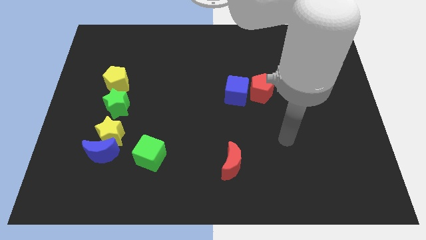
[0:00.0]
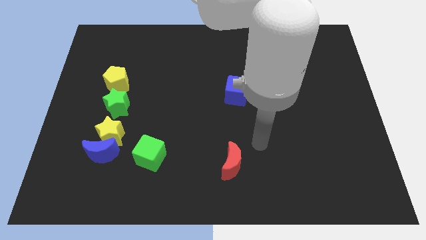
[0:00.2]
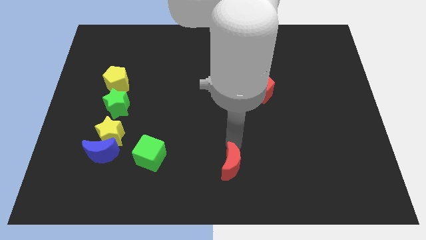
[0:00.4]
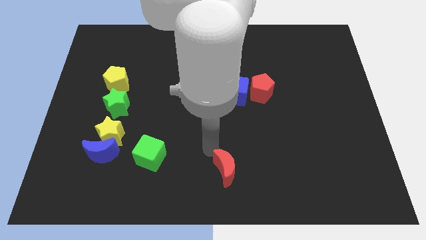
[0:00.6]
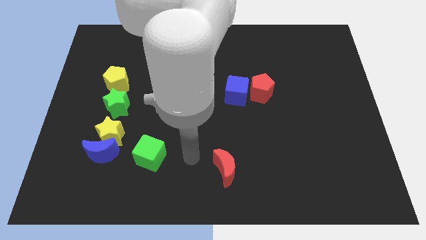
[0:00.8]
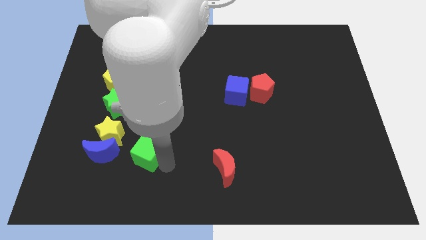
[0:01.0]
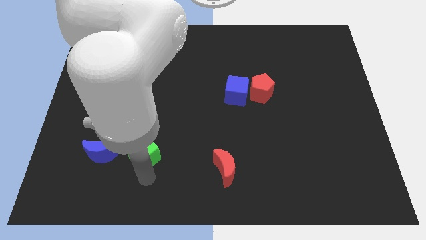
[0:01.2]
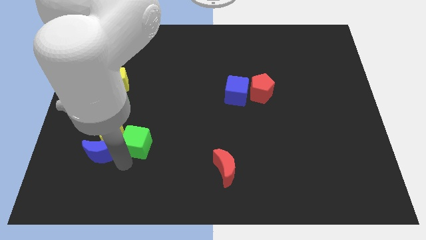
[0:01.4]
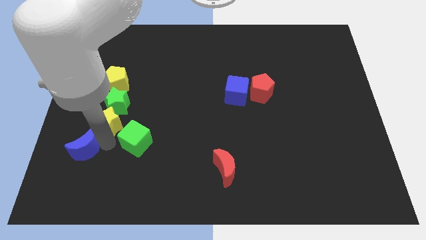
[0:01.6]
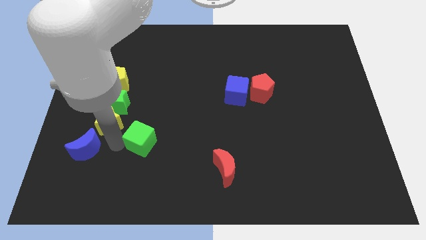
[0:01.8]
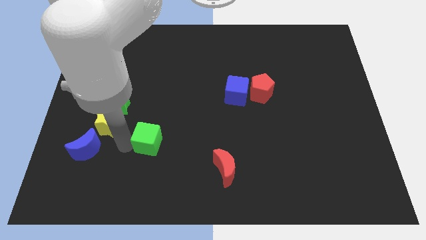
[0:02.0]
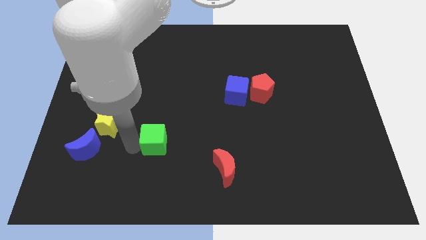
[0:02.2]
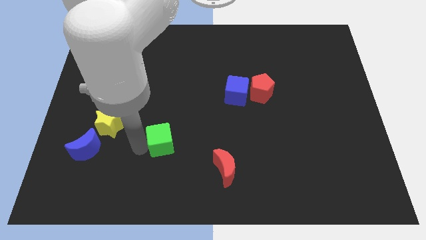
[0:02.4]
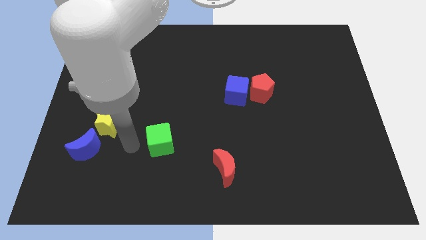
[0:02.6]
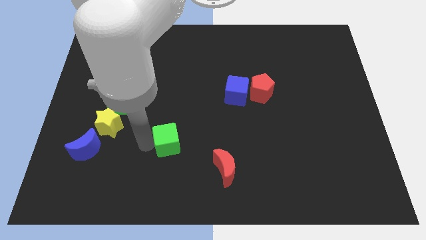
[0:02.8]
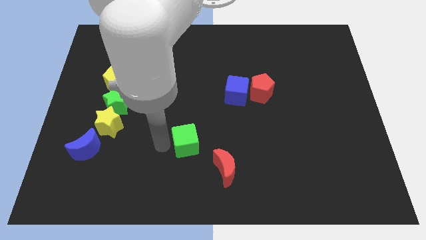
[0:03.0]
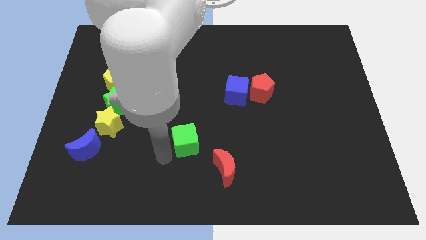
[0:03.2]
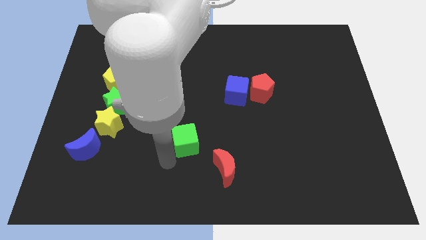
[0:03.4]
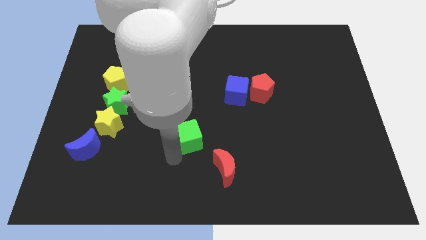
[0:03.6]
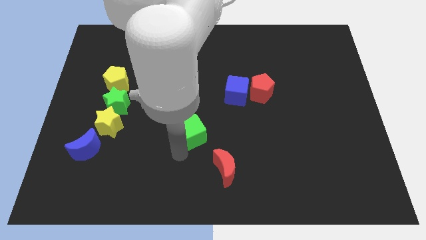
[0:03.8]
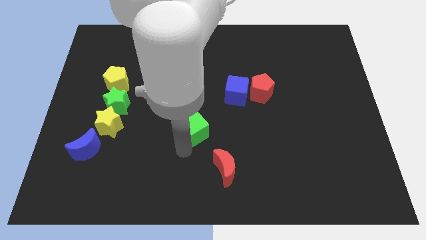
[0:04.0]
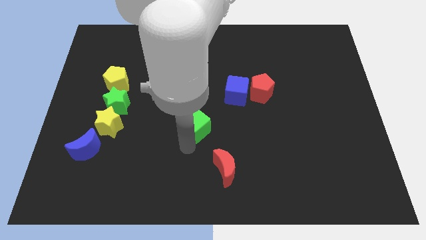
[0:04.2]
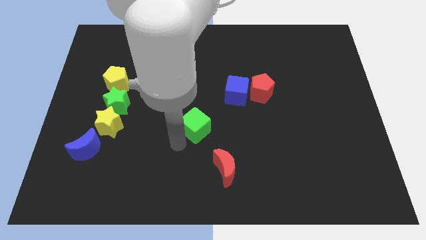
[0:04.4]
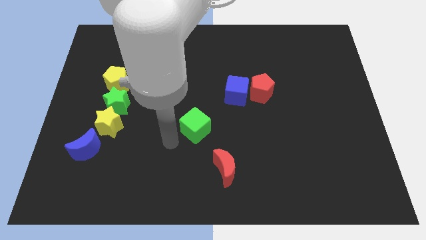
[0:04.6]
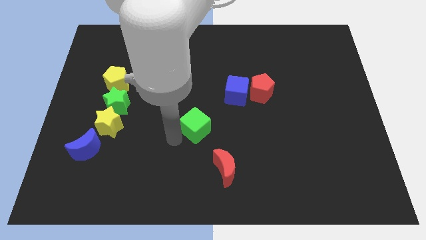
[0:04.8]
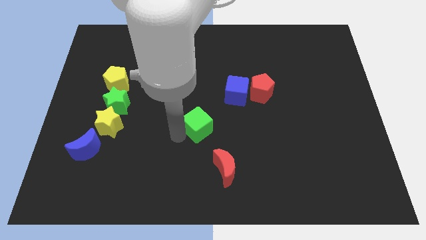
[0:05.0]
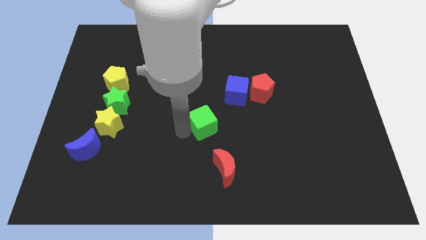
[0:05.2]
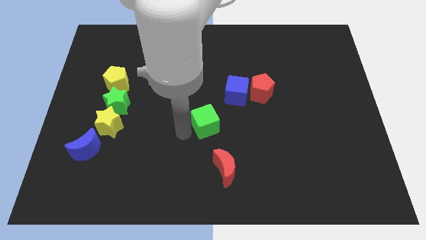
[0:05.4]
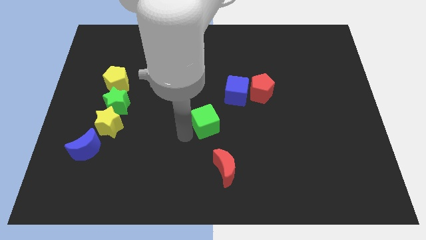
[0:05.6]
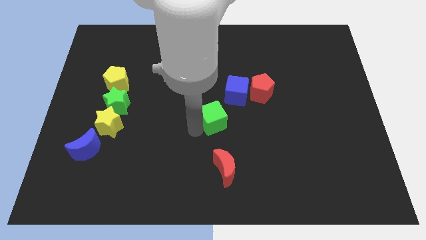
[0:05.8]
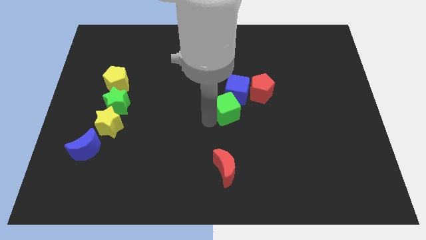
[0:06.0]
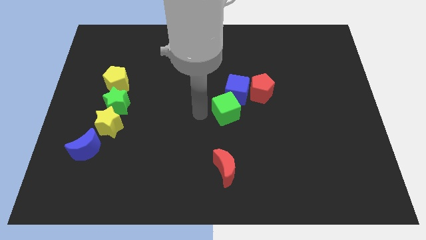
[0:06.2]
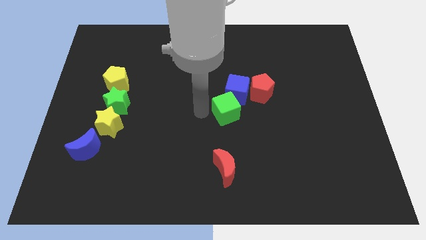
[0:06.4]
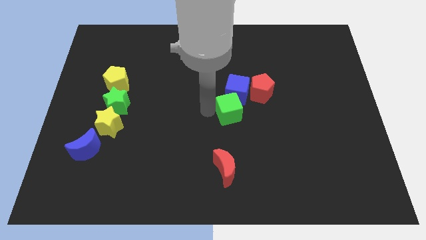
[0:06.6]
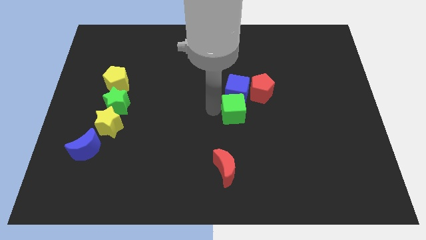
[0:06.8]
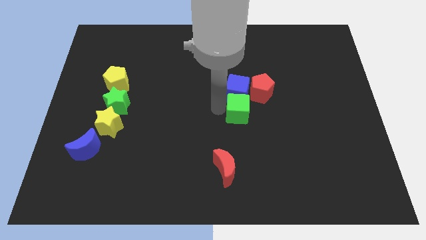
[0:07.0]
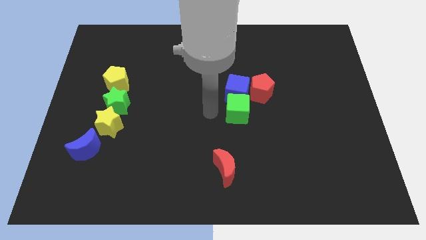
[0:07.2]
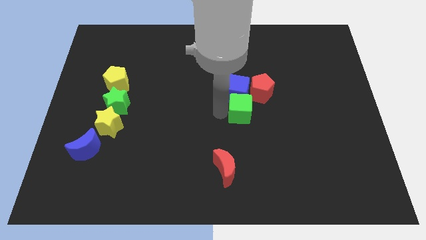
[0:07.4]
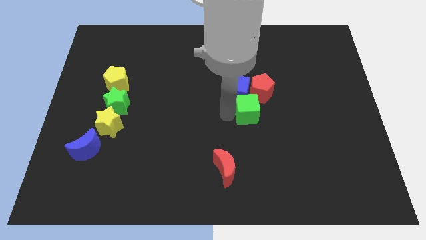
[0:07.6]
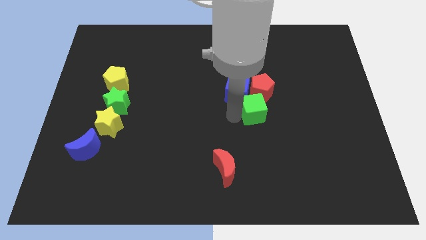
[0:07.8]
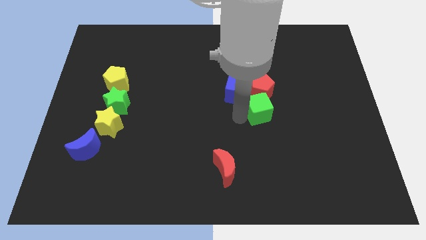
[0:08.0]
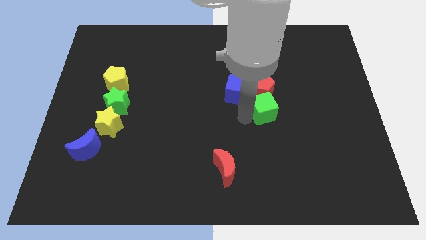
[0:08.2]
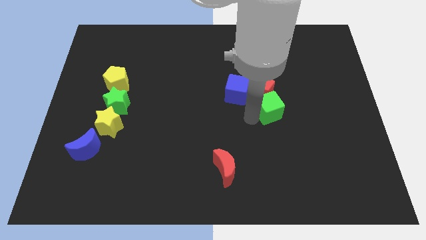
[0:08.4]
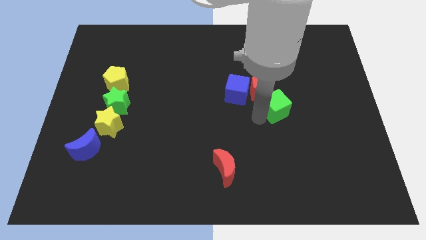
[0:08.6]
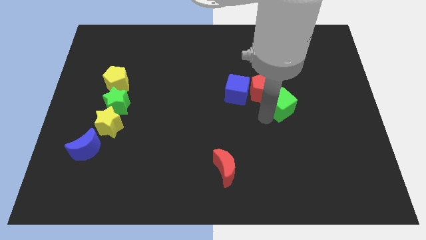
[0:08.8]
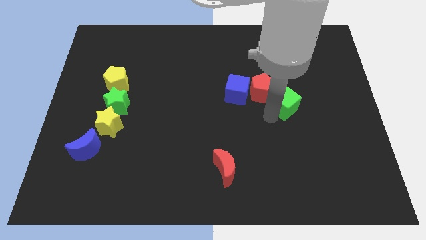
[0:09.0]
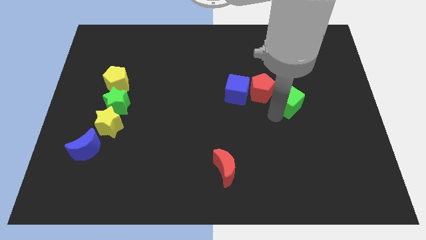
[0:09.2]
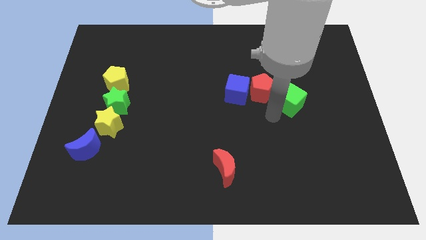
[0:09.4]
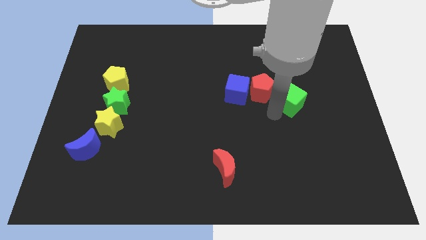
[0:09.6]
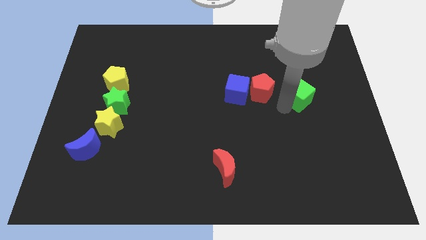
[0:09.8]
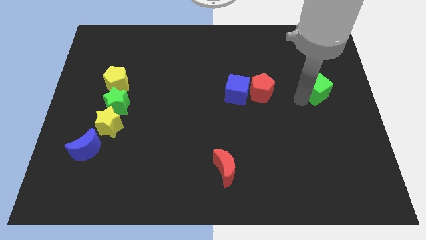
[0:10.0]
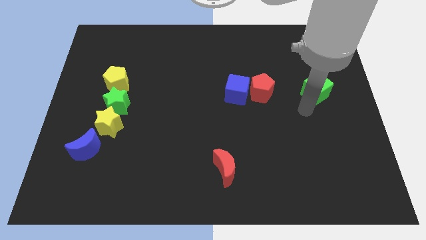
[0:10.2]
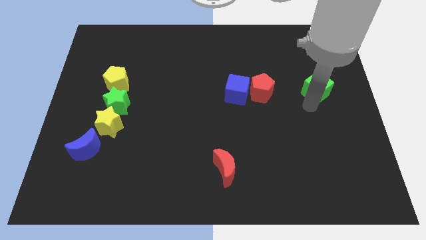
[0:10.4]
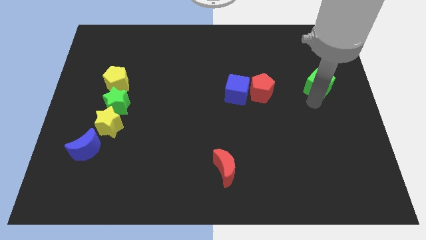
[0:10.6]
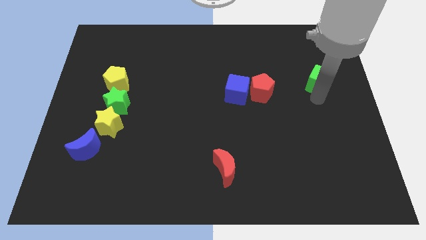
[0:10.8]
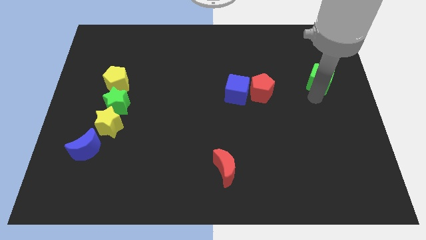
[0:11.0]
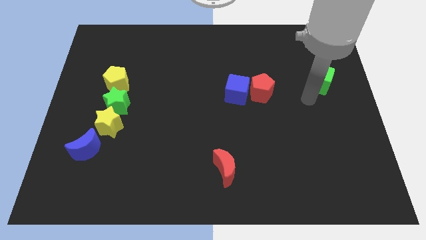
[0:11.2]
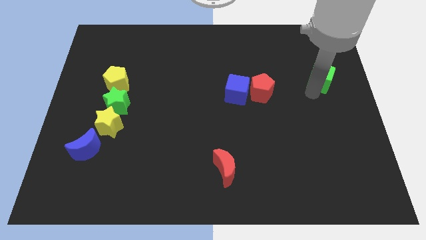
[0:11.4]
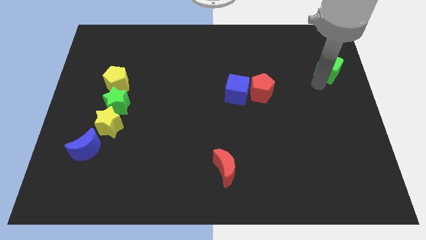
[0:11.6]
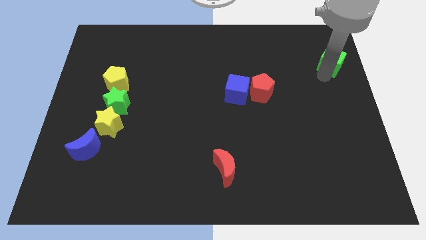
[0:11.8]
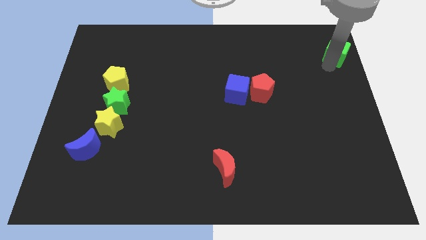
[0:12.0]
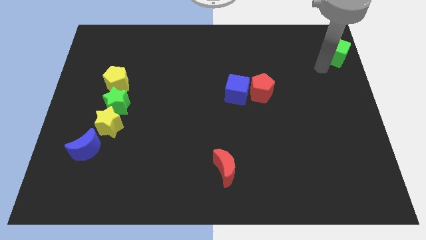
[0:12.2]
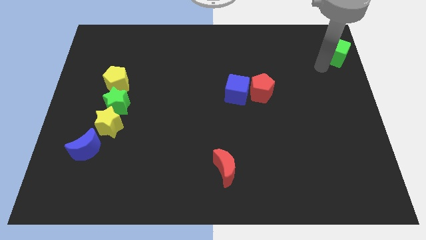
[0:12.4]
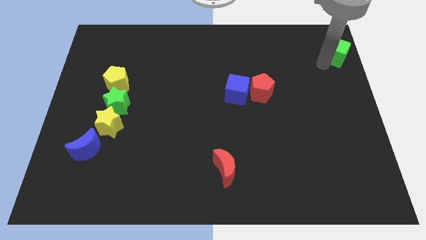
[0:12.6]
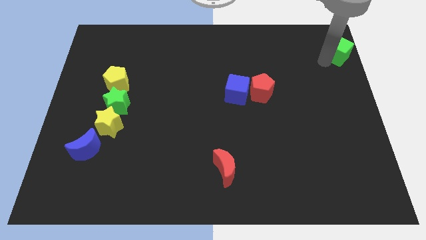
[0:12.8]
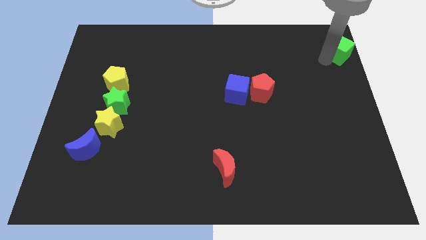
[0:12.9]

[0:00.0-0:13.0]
push the green cube to the top right
